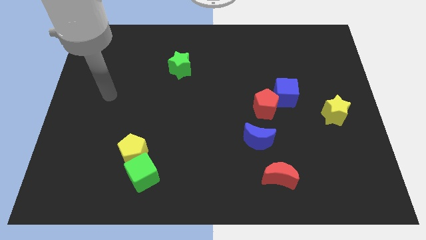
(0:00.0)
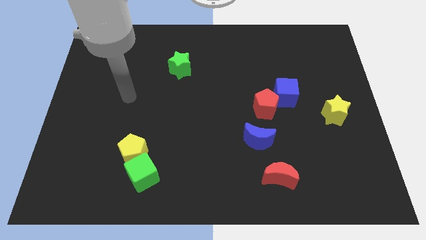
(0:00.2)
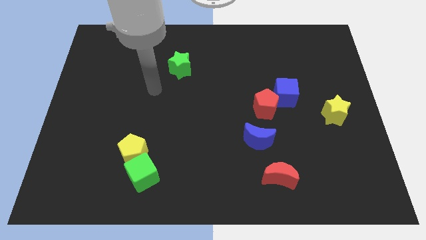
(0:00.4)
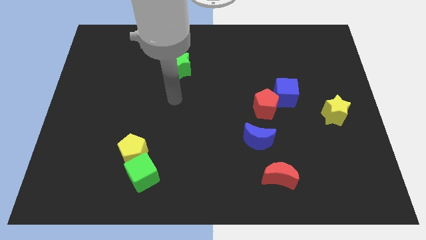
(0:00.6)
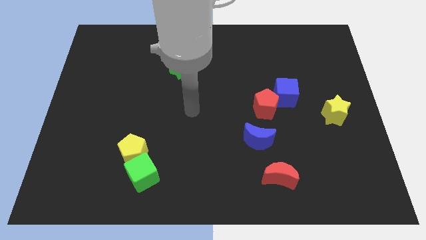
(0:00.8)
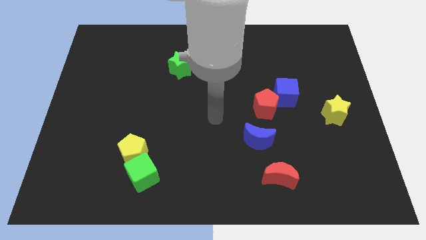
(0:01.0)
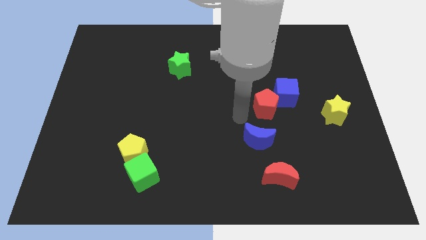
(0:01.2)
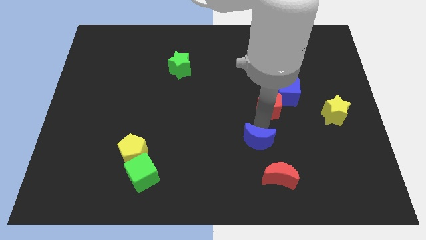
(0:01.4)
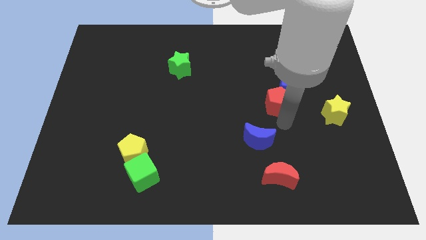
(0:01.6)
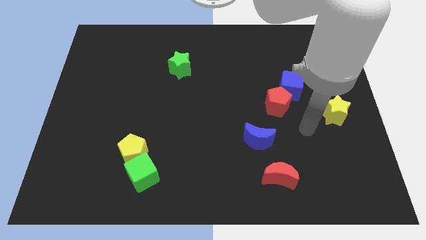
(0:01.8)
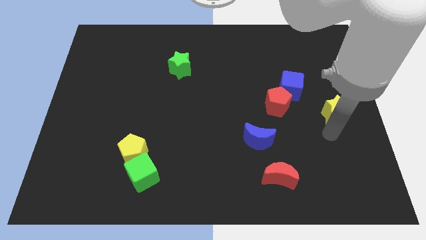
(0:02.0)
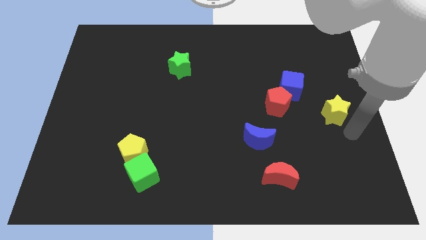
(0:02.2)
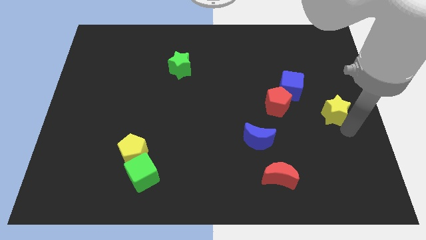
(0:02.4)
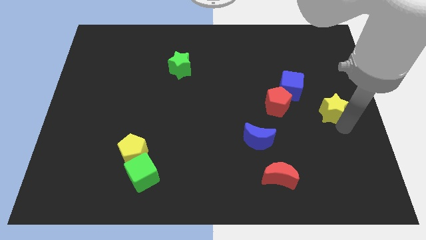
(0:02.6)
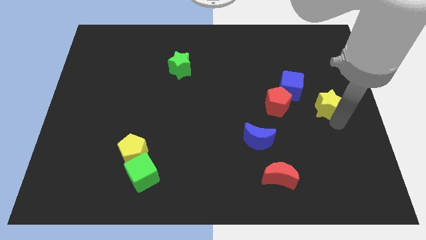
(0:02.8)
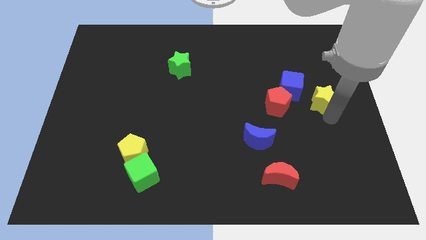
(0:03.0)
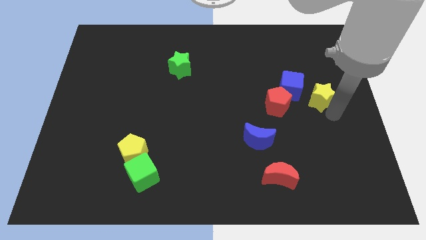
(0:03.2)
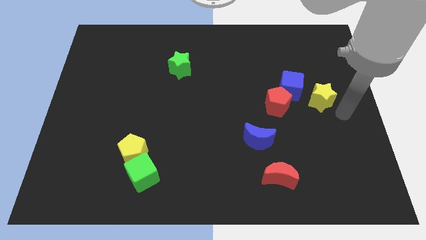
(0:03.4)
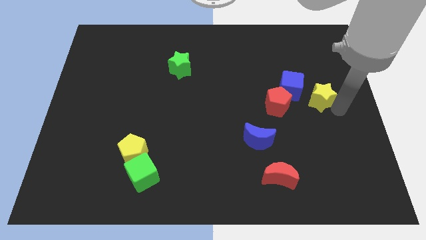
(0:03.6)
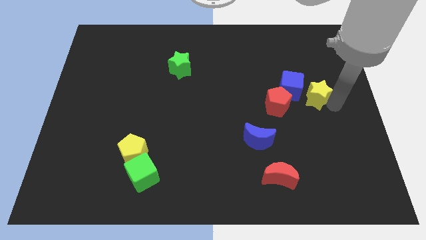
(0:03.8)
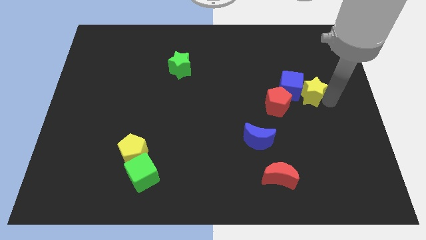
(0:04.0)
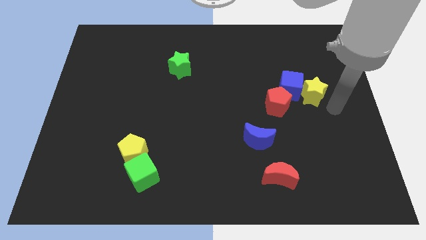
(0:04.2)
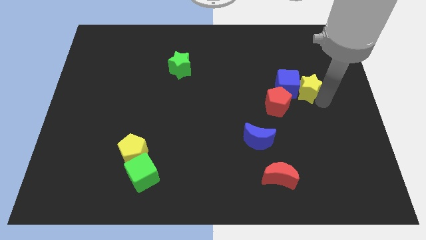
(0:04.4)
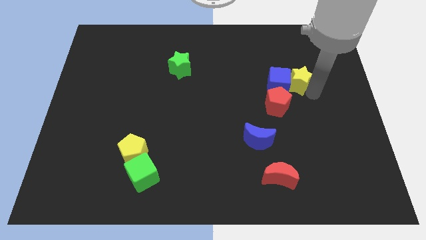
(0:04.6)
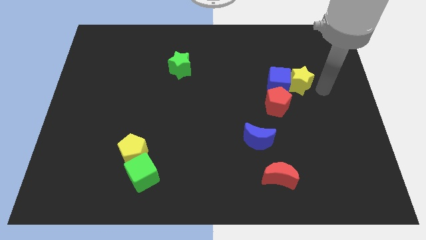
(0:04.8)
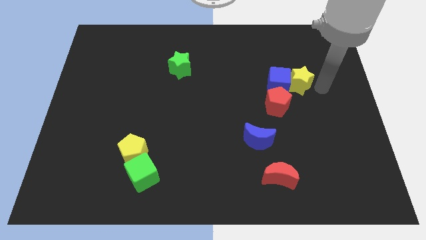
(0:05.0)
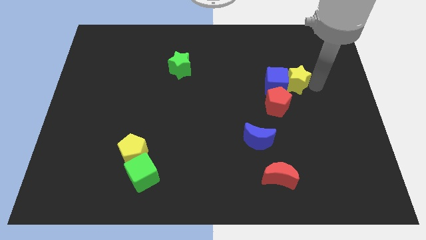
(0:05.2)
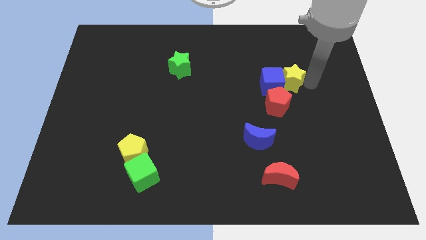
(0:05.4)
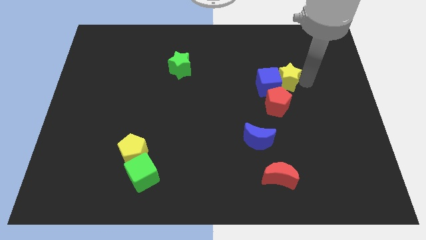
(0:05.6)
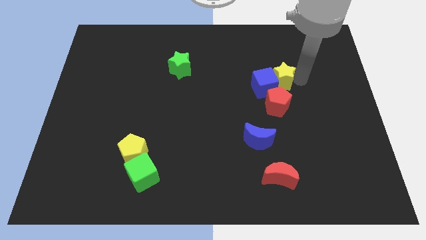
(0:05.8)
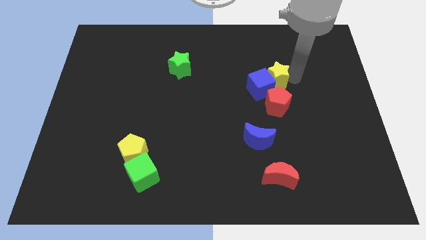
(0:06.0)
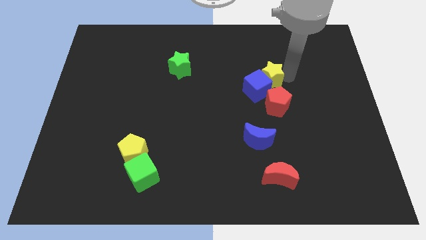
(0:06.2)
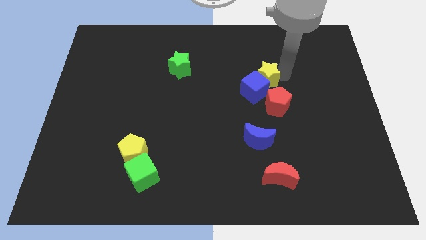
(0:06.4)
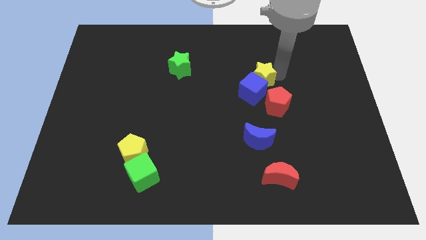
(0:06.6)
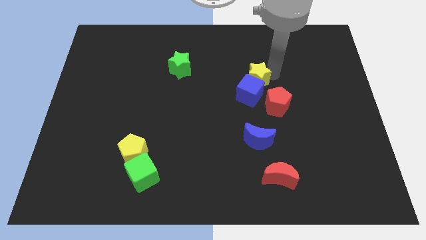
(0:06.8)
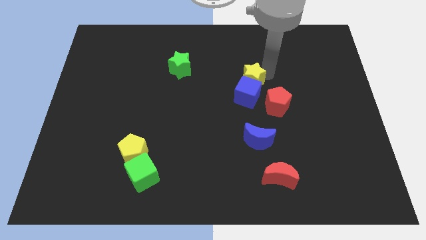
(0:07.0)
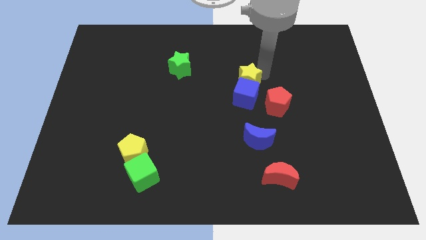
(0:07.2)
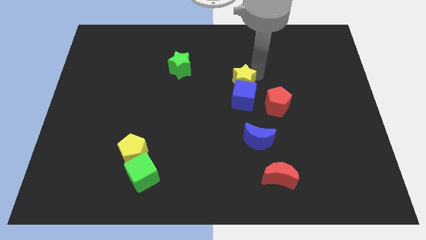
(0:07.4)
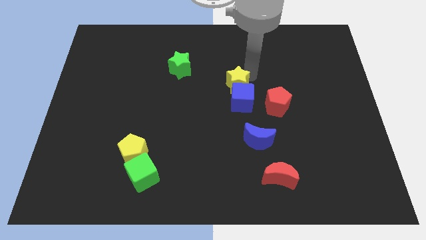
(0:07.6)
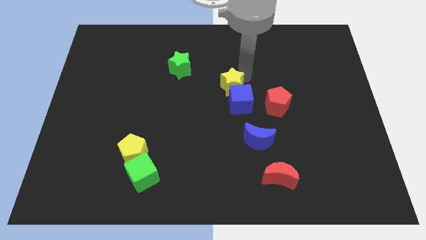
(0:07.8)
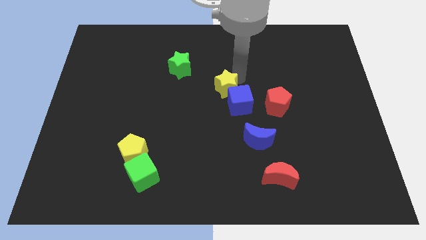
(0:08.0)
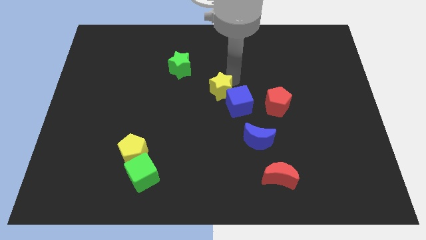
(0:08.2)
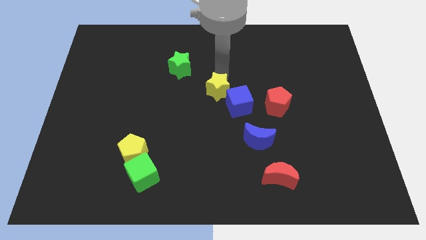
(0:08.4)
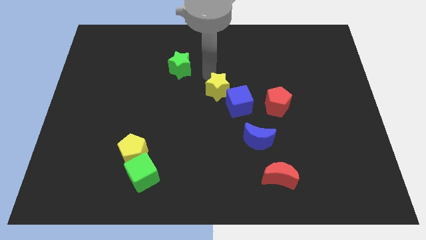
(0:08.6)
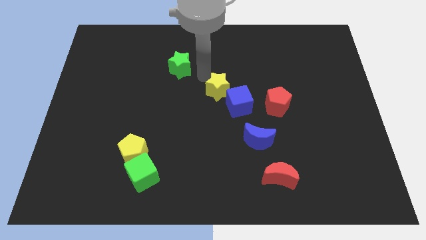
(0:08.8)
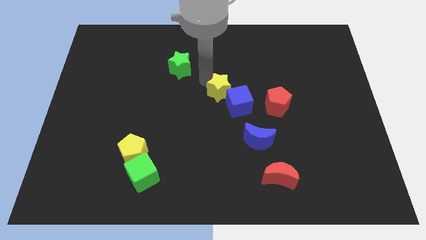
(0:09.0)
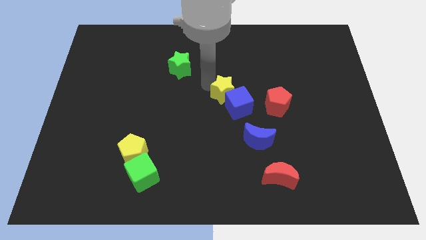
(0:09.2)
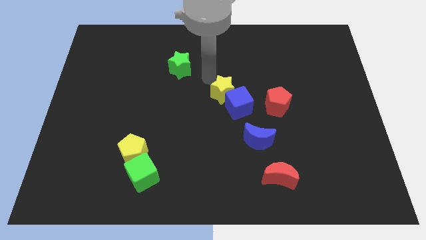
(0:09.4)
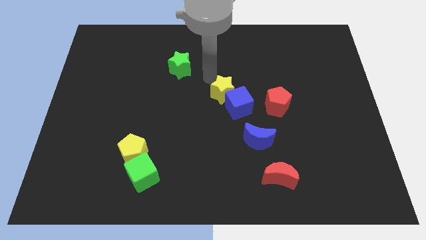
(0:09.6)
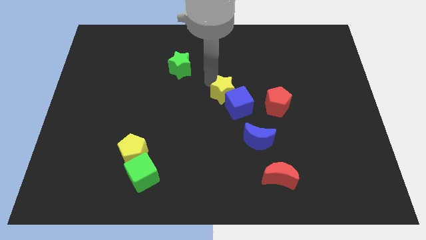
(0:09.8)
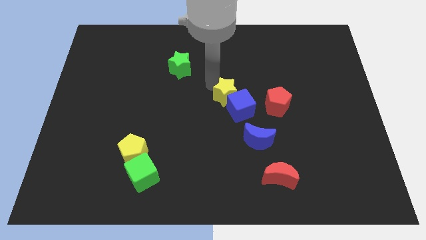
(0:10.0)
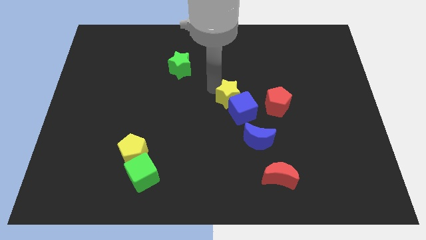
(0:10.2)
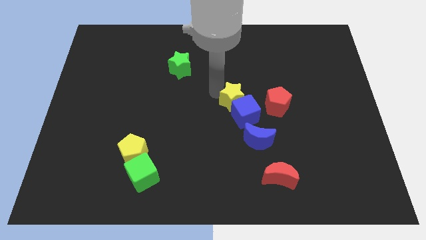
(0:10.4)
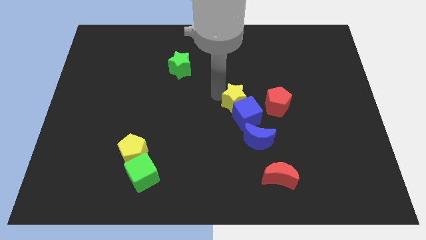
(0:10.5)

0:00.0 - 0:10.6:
slide the yellow star to the top left of the blue moon

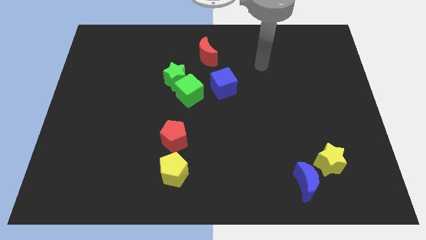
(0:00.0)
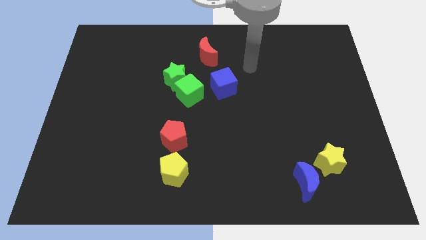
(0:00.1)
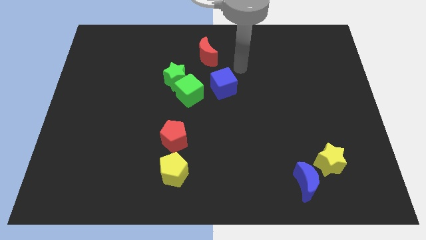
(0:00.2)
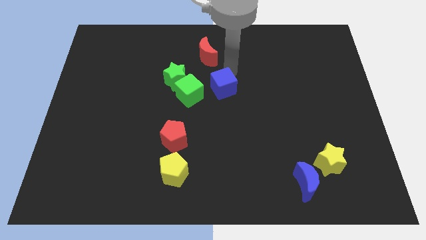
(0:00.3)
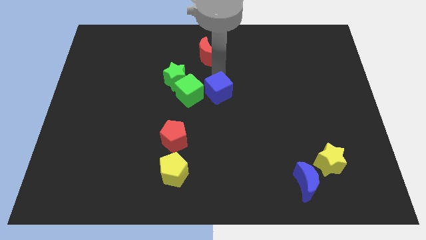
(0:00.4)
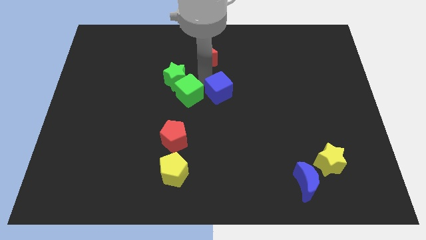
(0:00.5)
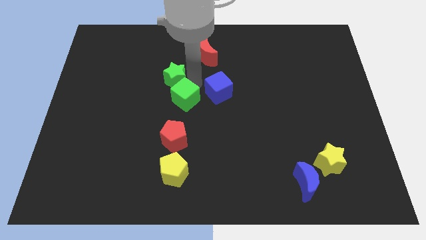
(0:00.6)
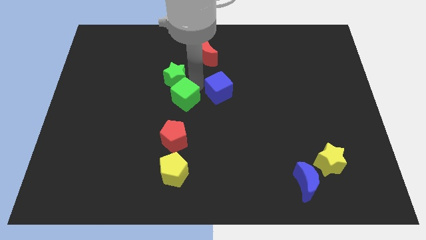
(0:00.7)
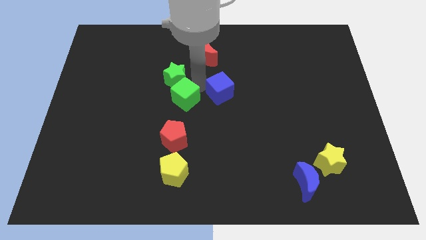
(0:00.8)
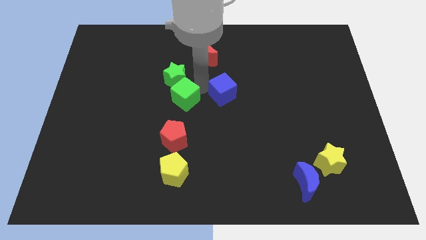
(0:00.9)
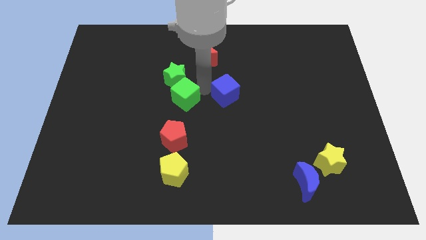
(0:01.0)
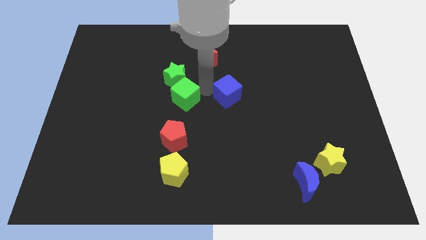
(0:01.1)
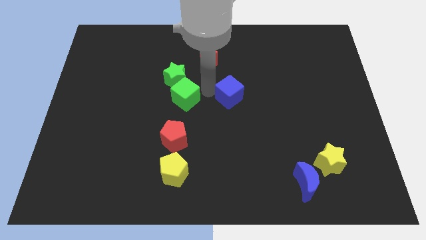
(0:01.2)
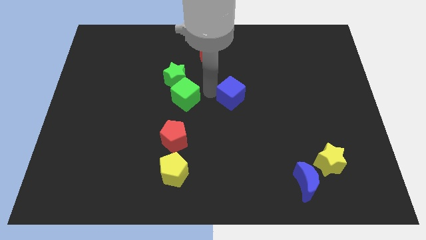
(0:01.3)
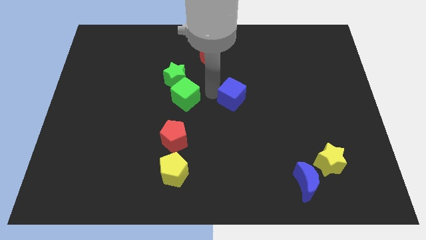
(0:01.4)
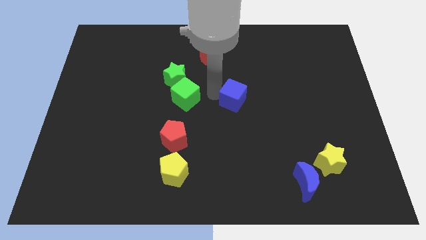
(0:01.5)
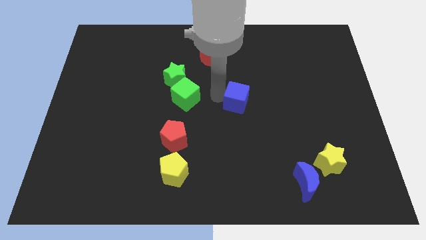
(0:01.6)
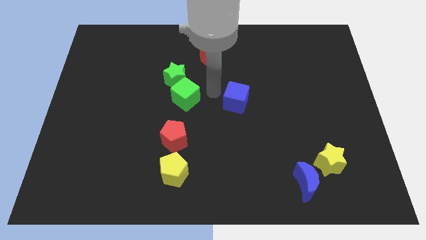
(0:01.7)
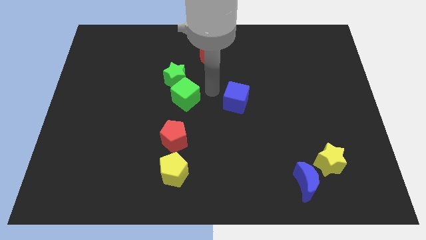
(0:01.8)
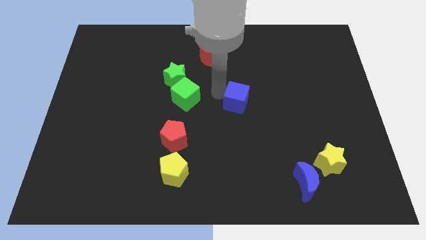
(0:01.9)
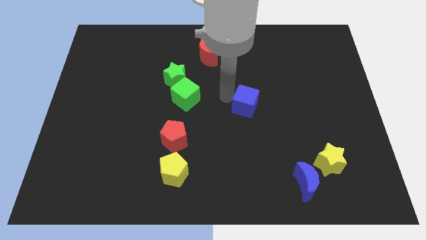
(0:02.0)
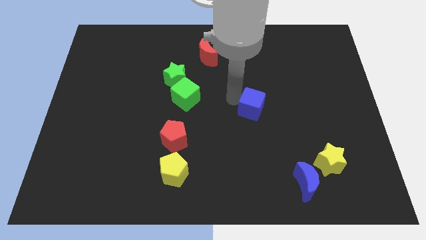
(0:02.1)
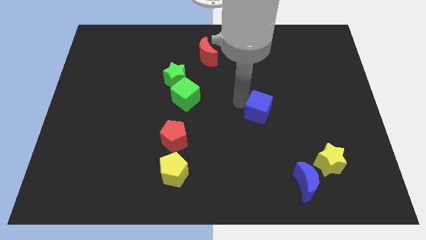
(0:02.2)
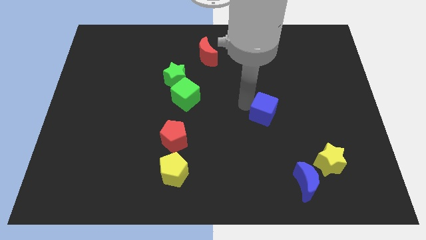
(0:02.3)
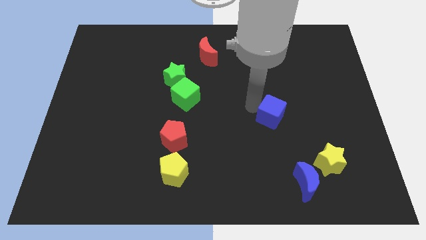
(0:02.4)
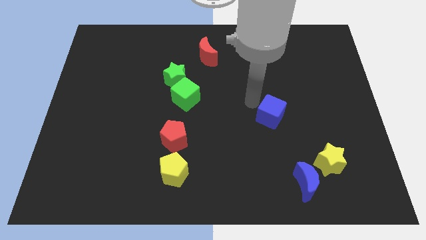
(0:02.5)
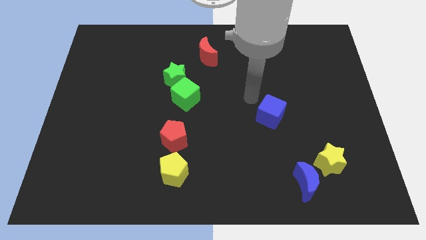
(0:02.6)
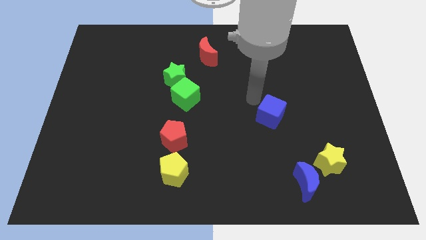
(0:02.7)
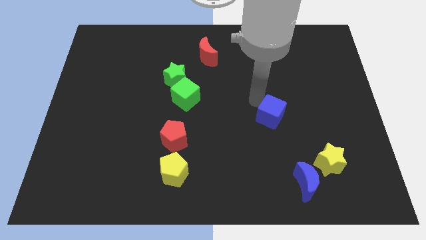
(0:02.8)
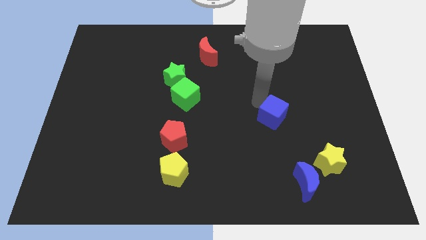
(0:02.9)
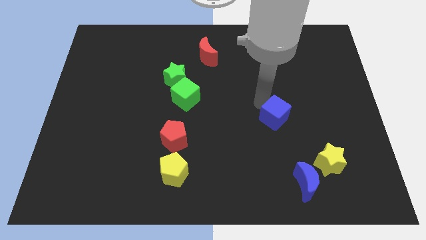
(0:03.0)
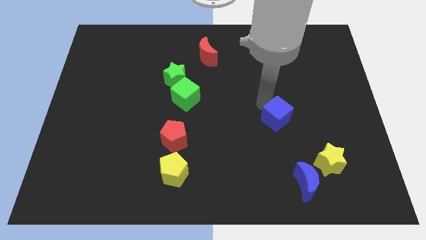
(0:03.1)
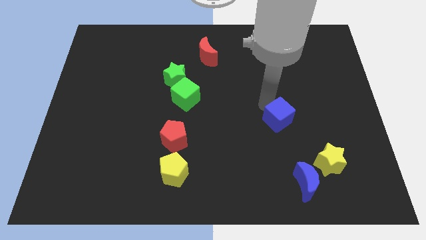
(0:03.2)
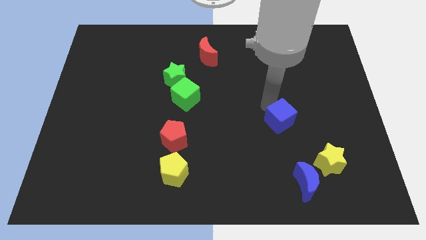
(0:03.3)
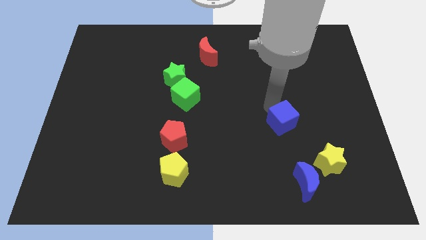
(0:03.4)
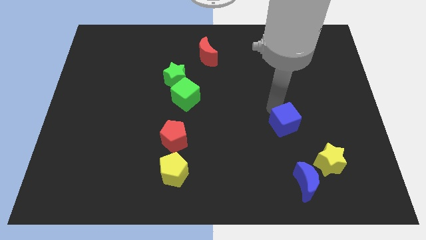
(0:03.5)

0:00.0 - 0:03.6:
slide the blue cube above the blue moon
